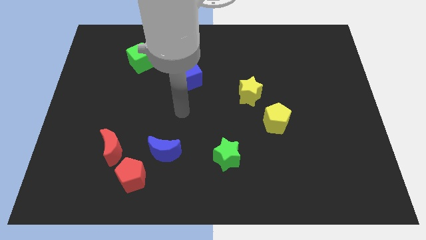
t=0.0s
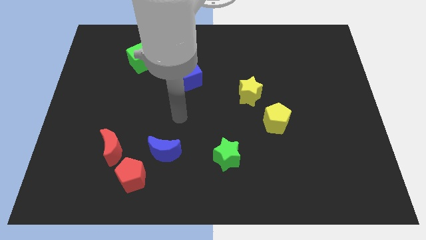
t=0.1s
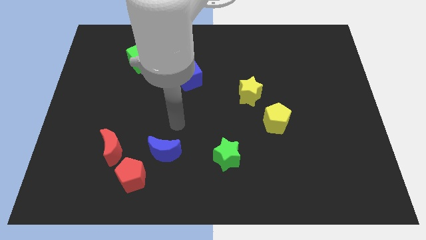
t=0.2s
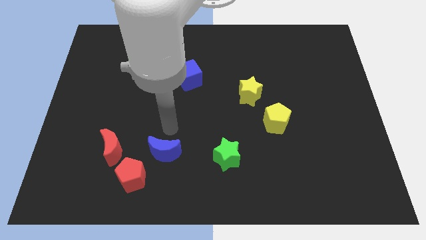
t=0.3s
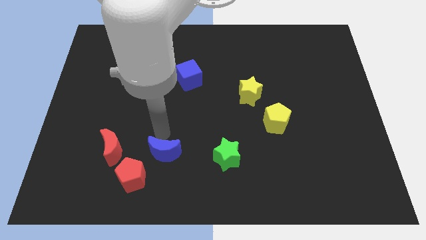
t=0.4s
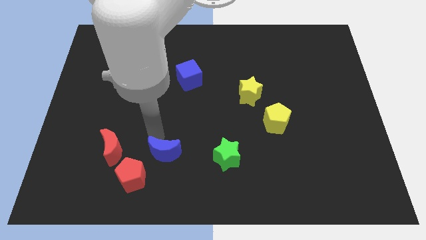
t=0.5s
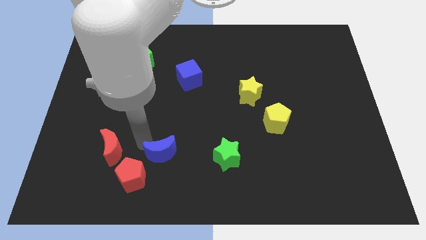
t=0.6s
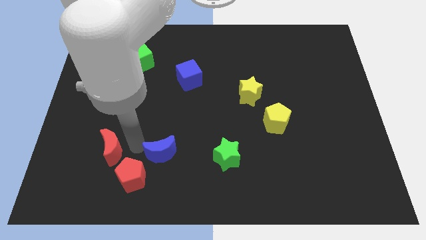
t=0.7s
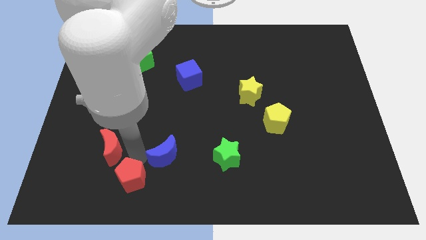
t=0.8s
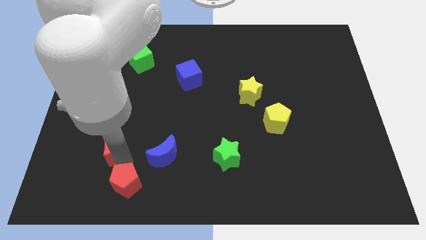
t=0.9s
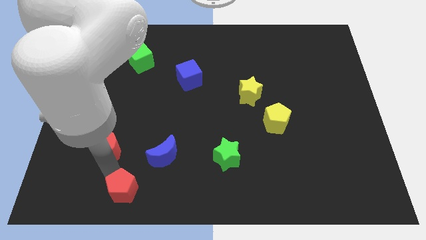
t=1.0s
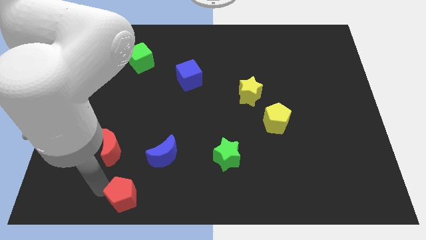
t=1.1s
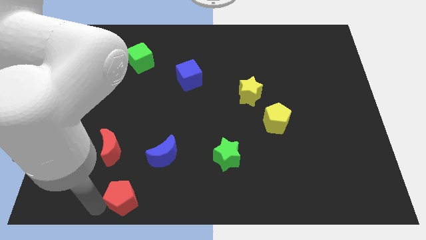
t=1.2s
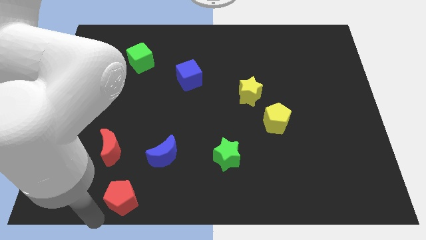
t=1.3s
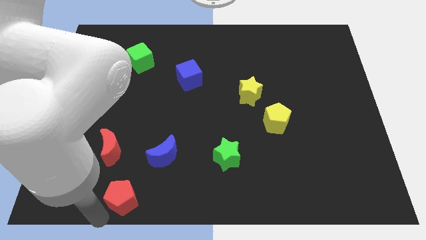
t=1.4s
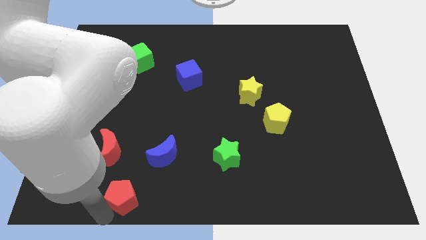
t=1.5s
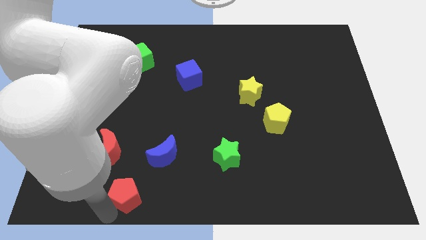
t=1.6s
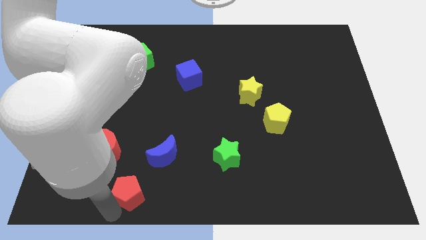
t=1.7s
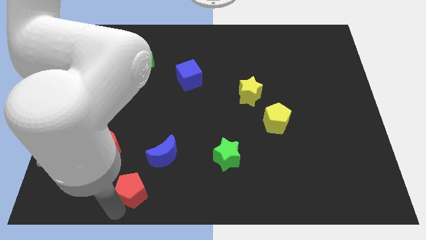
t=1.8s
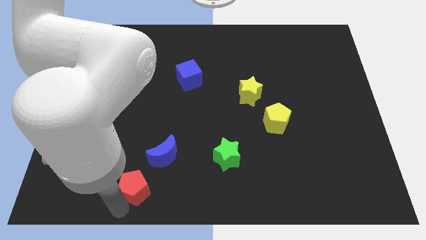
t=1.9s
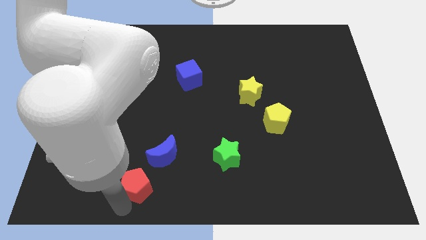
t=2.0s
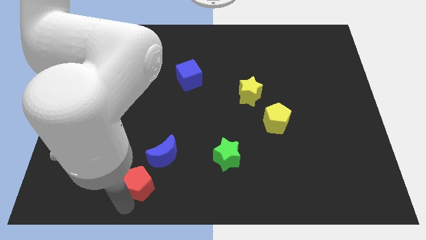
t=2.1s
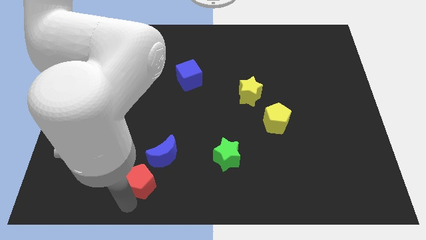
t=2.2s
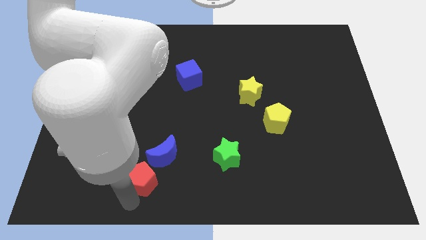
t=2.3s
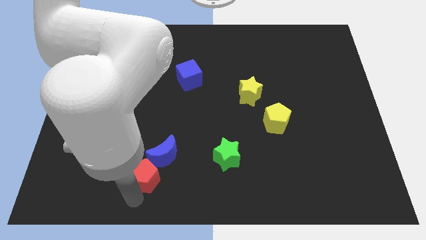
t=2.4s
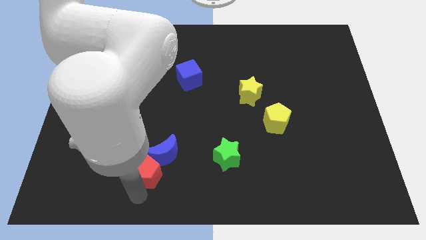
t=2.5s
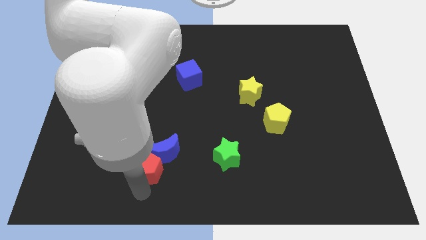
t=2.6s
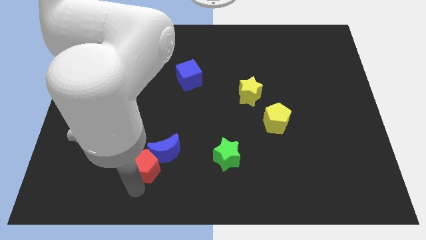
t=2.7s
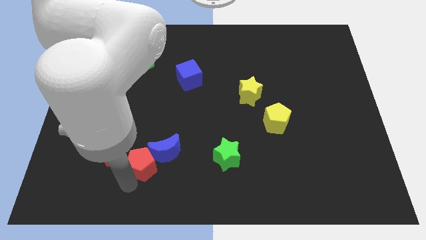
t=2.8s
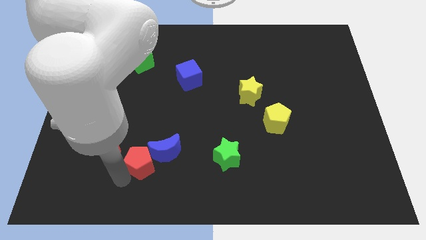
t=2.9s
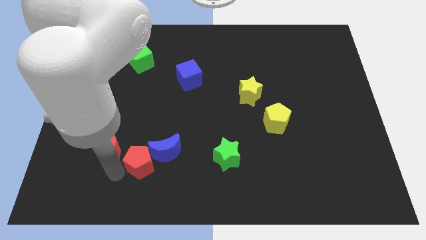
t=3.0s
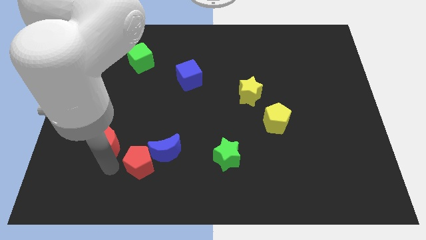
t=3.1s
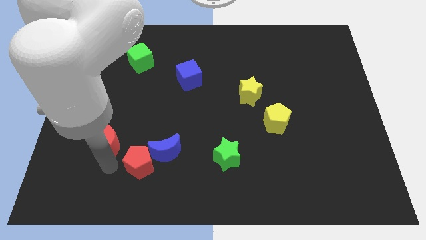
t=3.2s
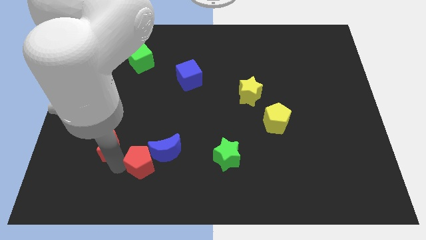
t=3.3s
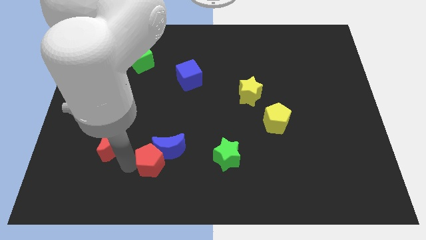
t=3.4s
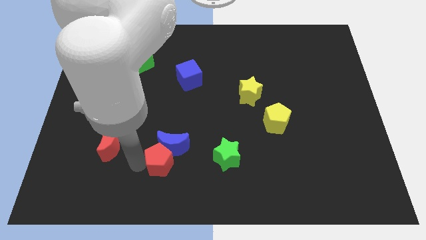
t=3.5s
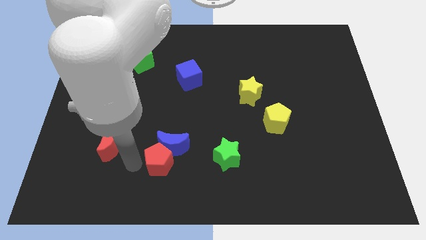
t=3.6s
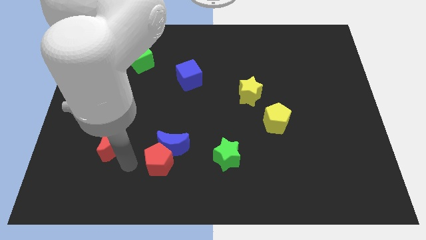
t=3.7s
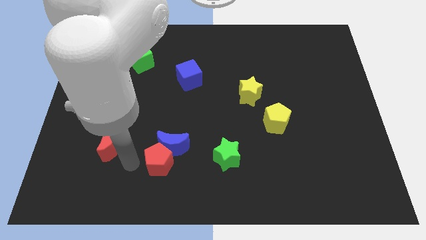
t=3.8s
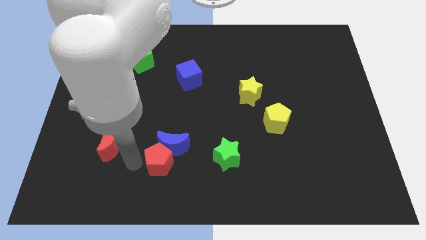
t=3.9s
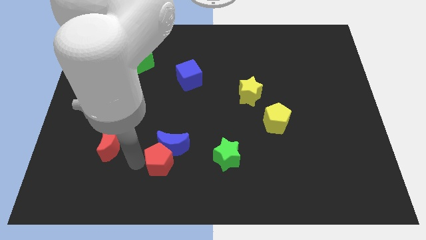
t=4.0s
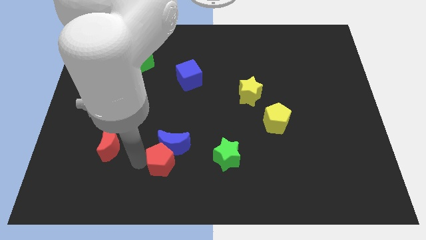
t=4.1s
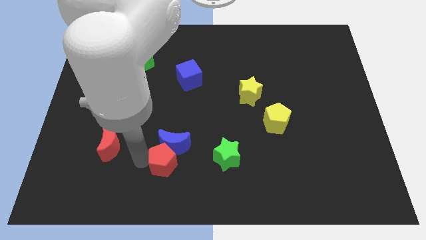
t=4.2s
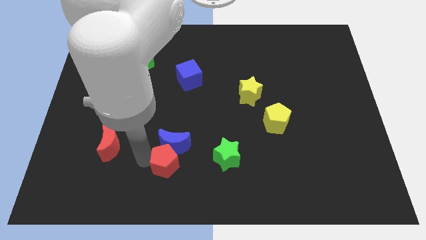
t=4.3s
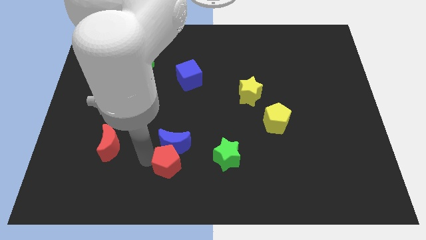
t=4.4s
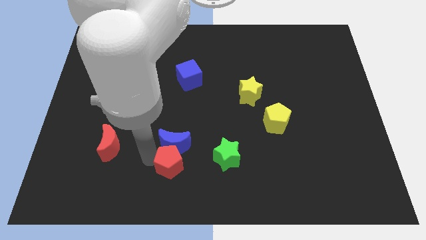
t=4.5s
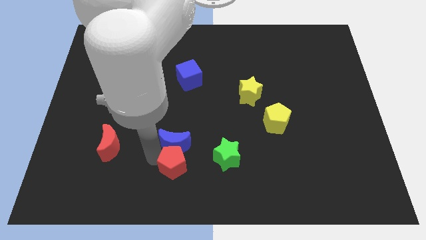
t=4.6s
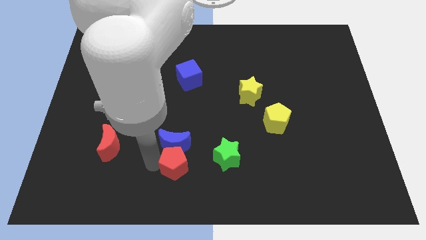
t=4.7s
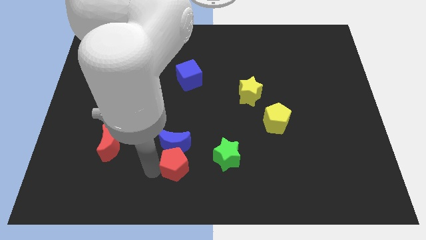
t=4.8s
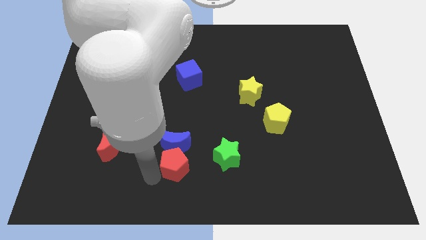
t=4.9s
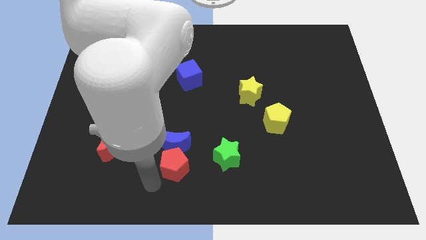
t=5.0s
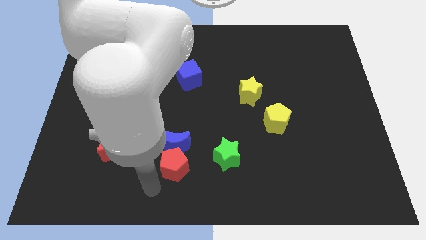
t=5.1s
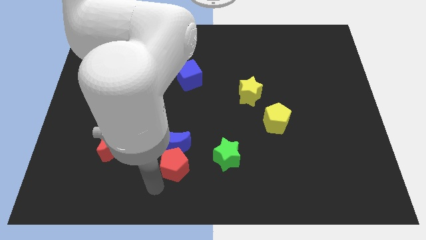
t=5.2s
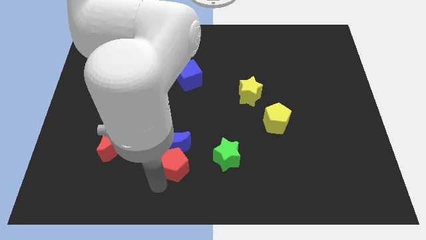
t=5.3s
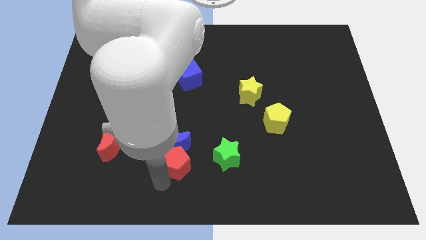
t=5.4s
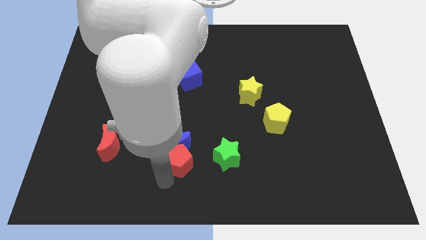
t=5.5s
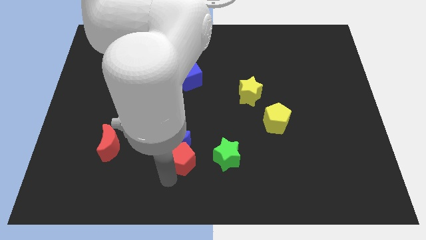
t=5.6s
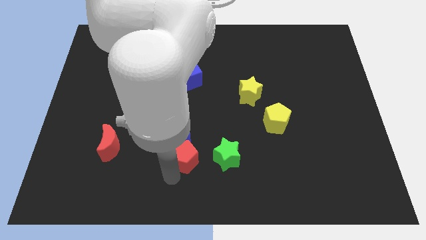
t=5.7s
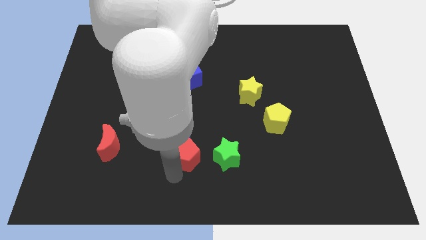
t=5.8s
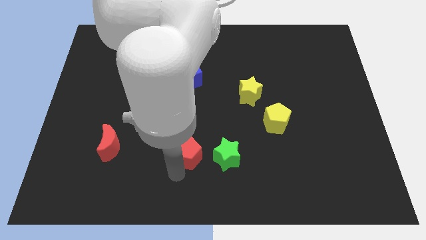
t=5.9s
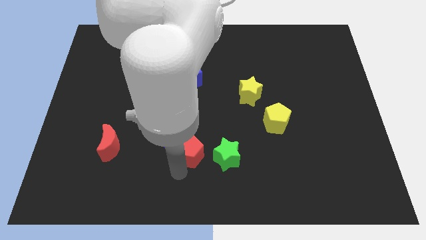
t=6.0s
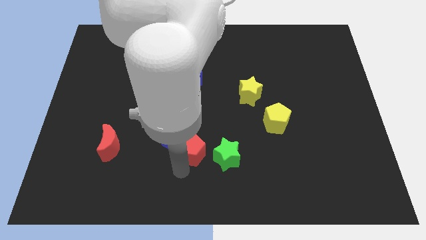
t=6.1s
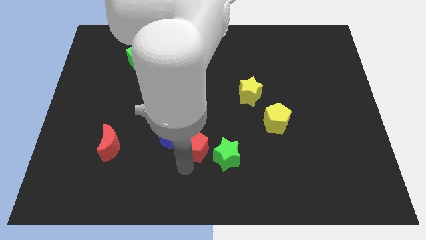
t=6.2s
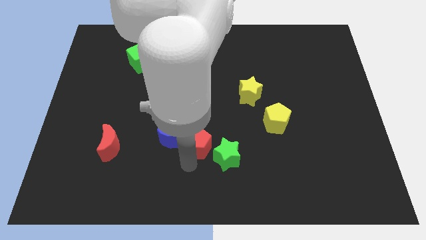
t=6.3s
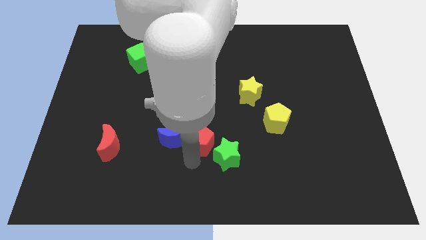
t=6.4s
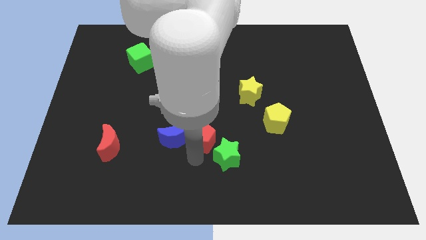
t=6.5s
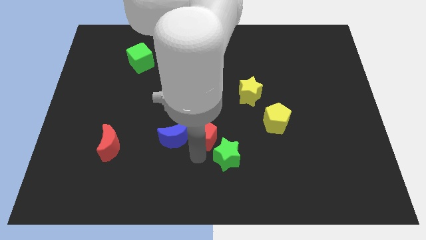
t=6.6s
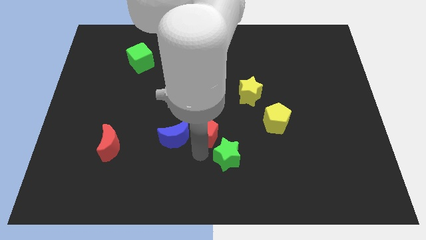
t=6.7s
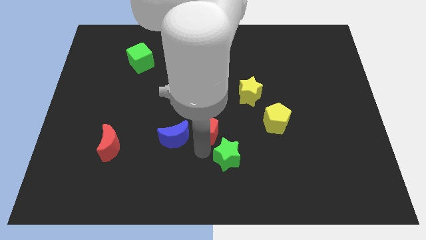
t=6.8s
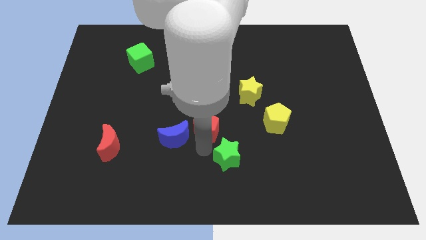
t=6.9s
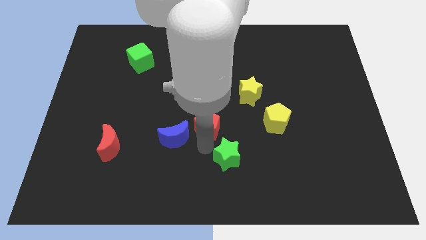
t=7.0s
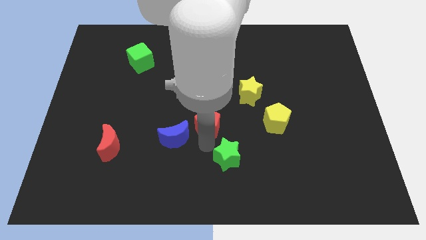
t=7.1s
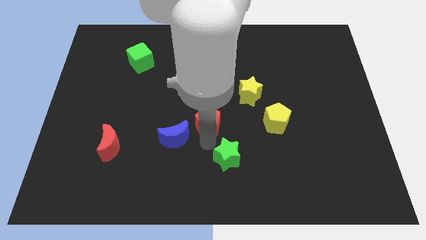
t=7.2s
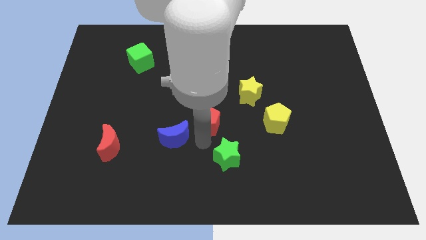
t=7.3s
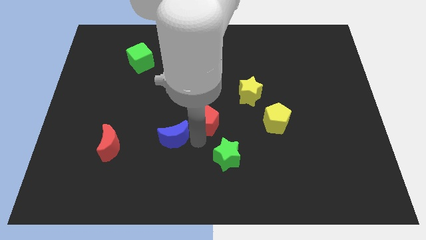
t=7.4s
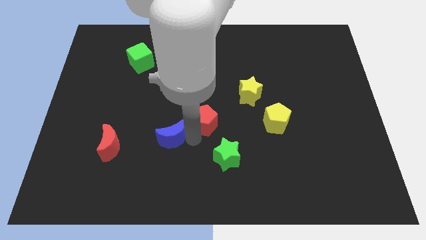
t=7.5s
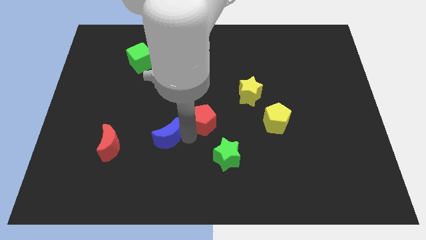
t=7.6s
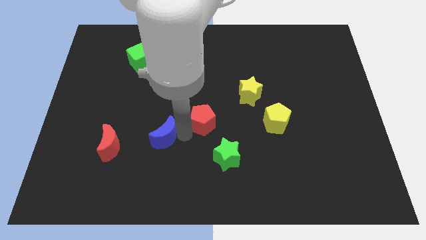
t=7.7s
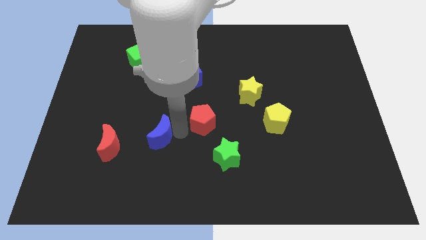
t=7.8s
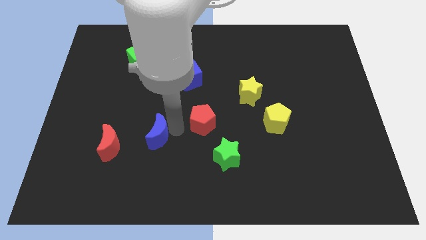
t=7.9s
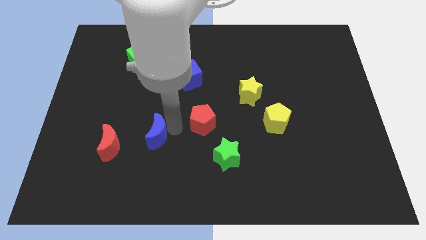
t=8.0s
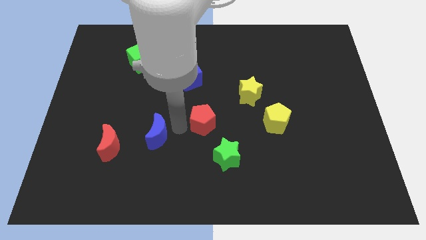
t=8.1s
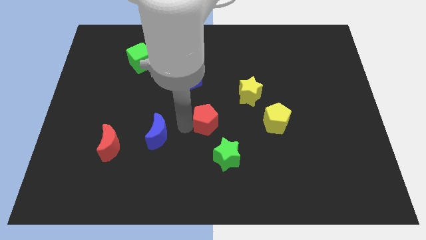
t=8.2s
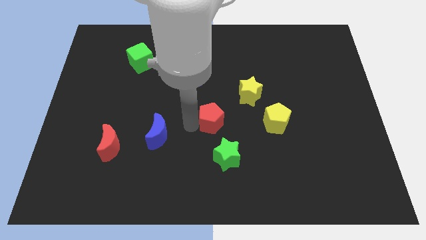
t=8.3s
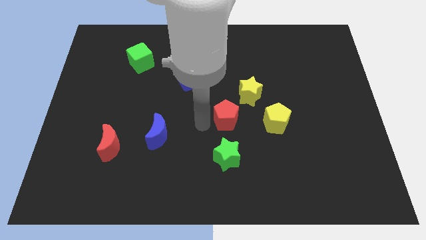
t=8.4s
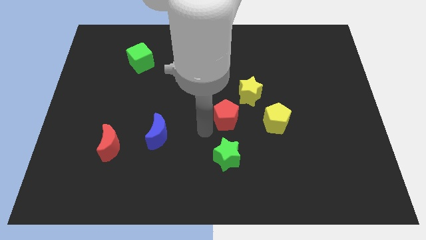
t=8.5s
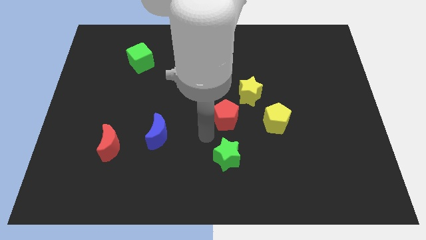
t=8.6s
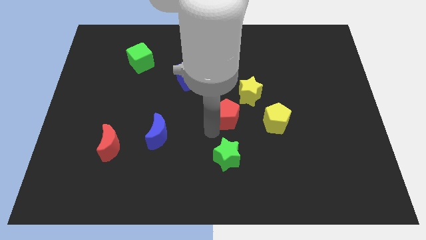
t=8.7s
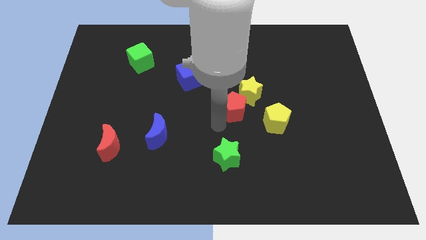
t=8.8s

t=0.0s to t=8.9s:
push the red pentagon next to the yellow star
